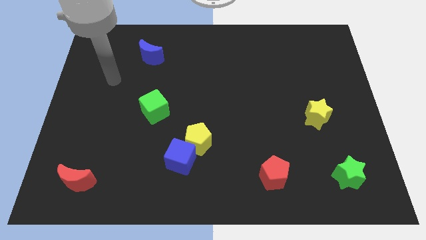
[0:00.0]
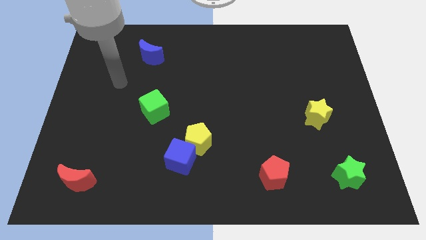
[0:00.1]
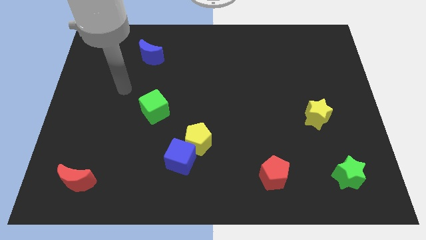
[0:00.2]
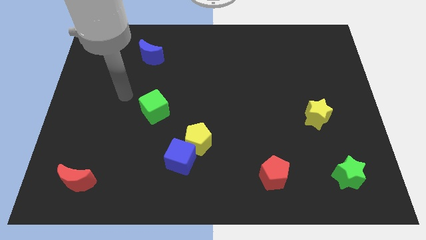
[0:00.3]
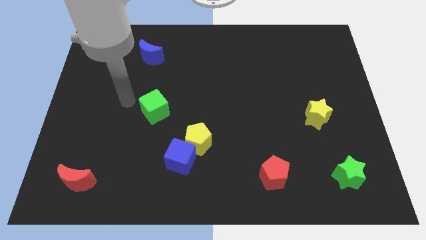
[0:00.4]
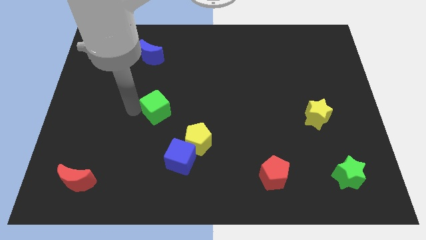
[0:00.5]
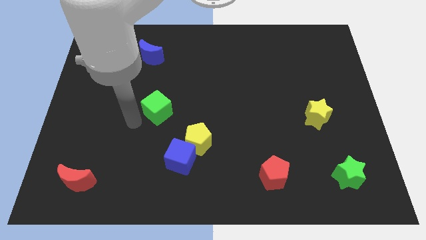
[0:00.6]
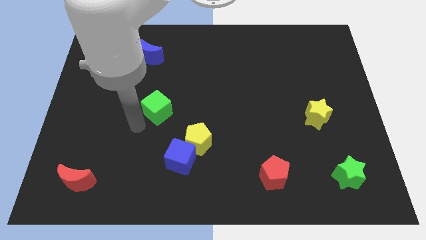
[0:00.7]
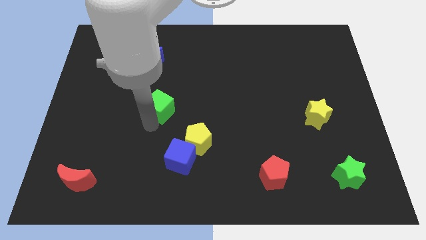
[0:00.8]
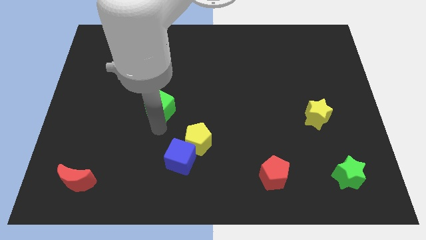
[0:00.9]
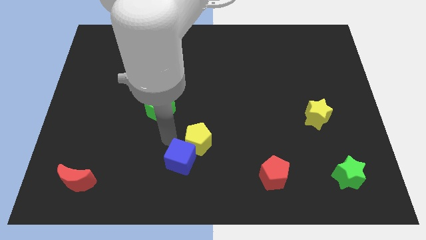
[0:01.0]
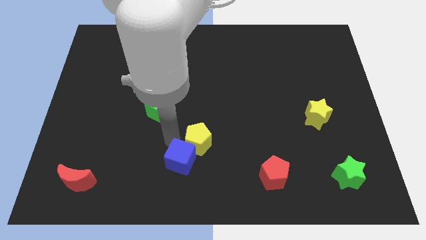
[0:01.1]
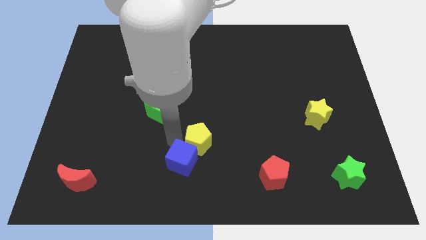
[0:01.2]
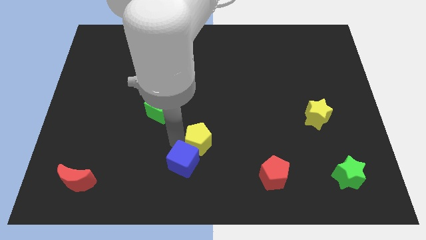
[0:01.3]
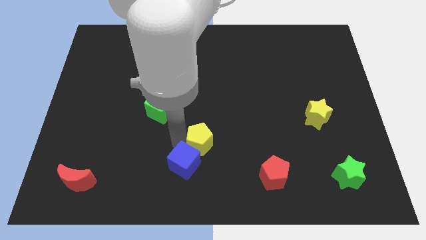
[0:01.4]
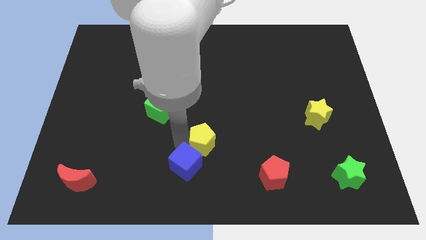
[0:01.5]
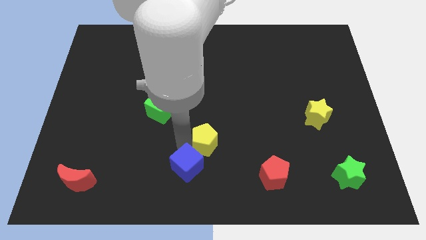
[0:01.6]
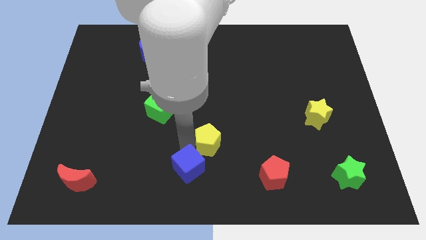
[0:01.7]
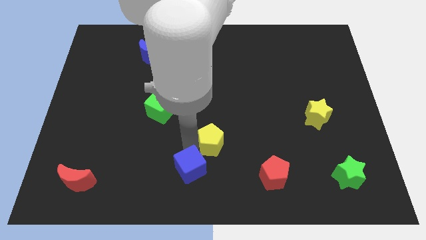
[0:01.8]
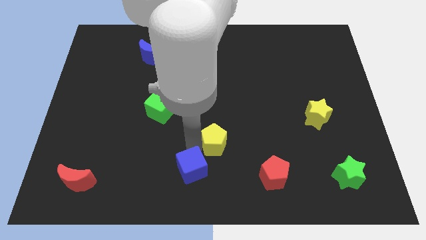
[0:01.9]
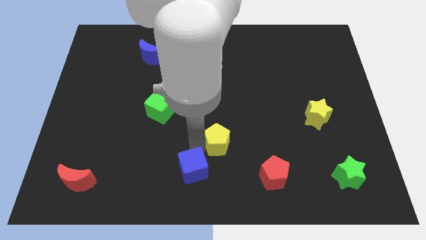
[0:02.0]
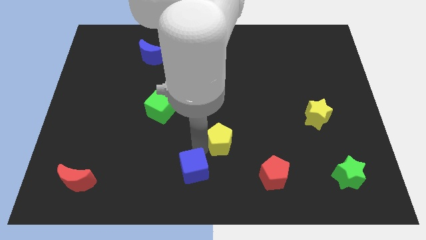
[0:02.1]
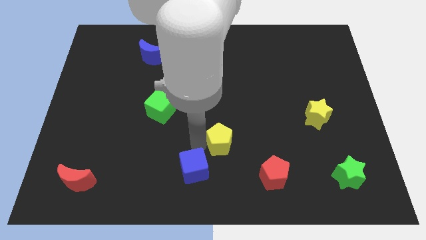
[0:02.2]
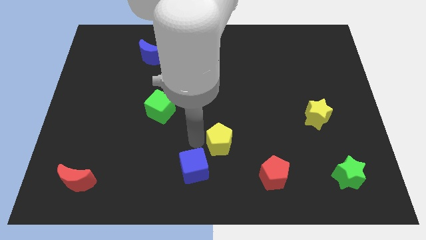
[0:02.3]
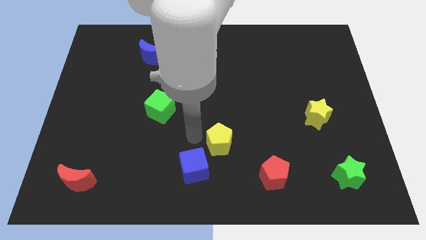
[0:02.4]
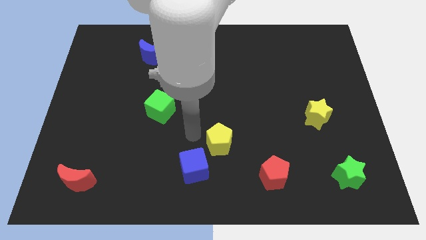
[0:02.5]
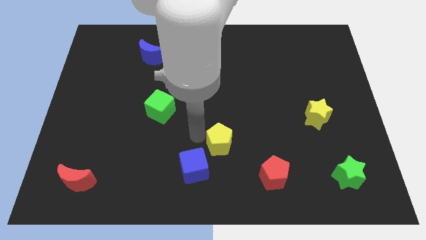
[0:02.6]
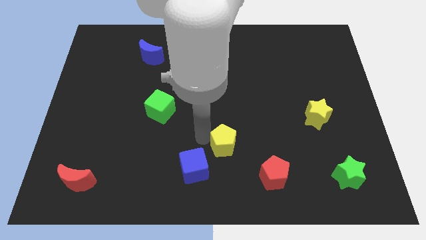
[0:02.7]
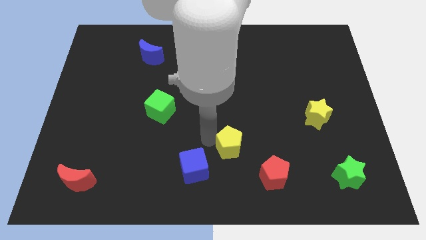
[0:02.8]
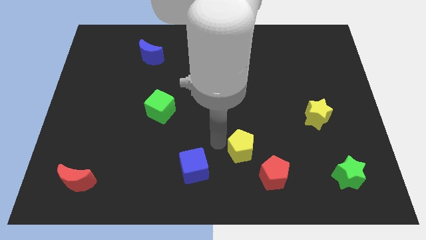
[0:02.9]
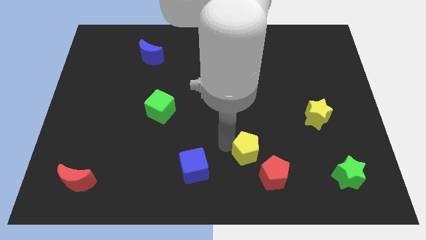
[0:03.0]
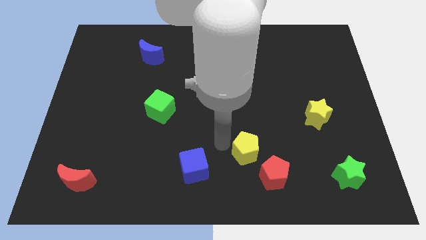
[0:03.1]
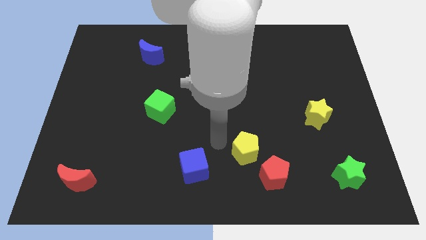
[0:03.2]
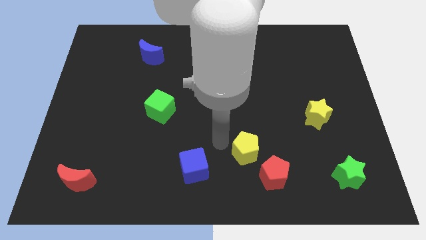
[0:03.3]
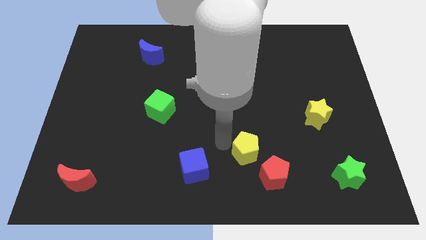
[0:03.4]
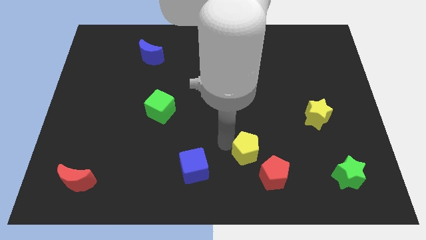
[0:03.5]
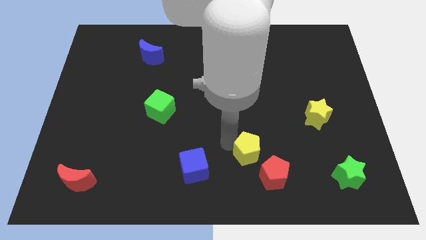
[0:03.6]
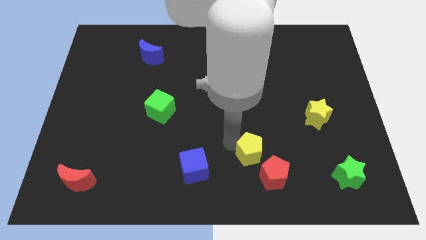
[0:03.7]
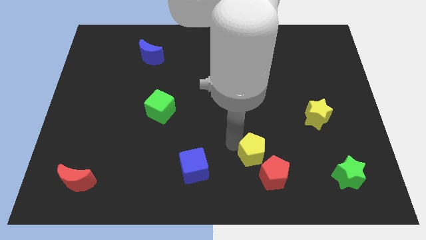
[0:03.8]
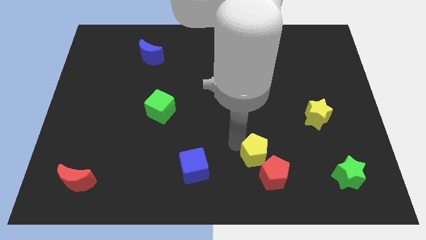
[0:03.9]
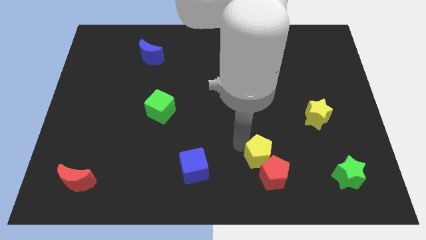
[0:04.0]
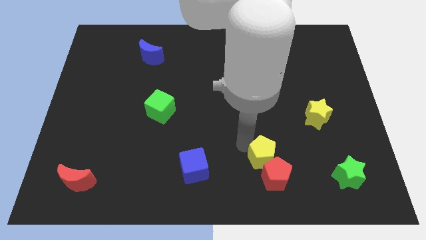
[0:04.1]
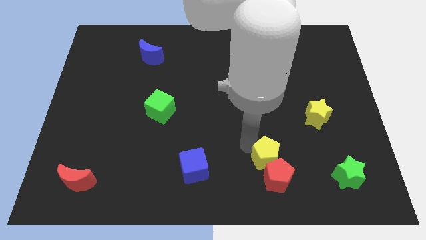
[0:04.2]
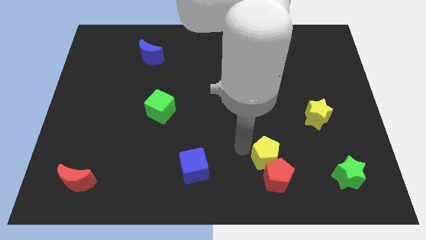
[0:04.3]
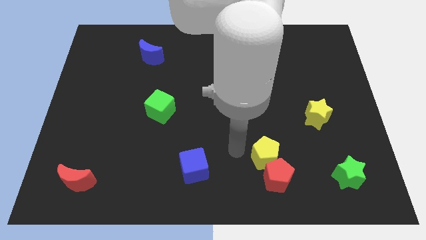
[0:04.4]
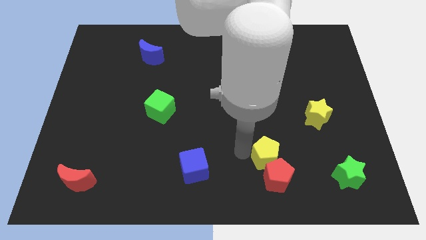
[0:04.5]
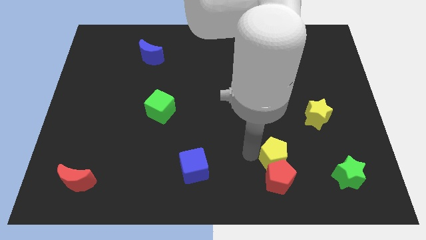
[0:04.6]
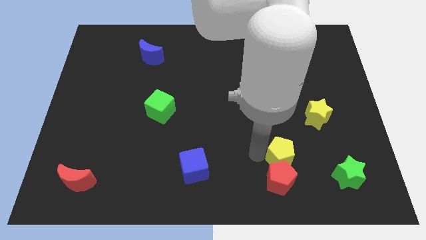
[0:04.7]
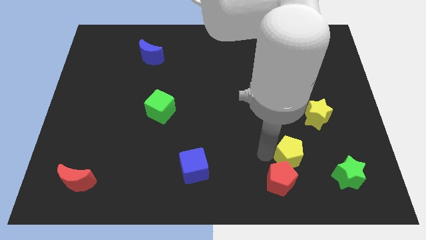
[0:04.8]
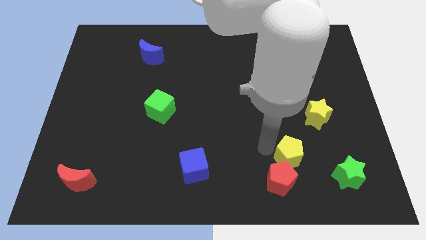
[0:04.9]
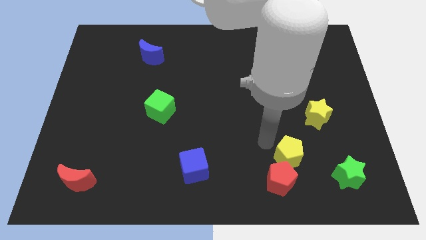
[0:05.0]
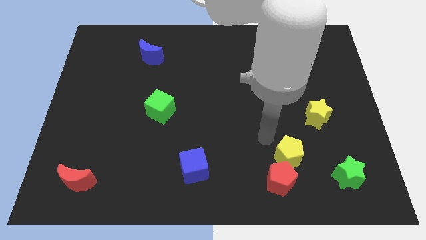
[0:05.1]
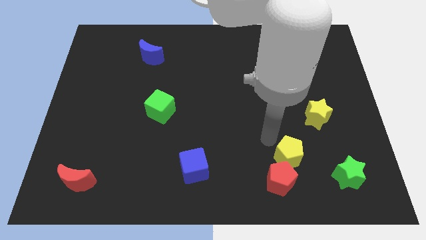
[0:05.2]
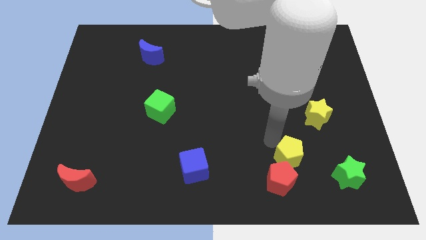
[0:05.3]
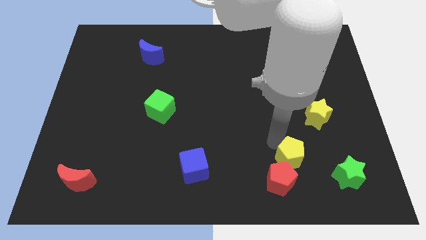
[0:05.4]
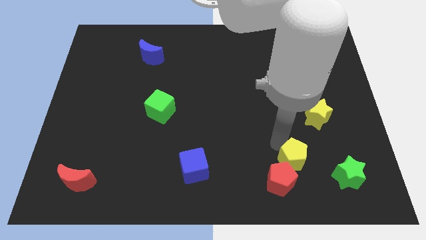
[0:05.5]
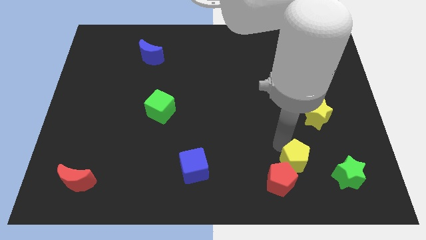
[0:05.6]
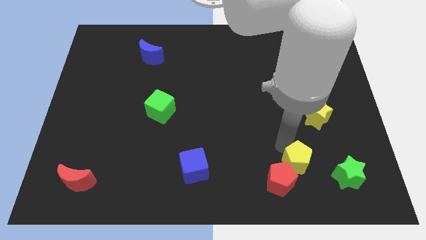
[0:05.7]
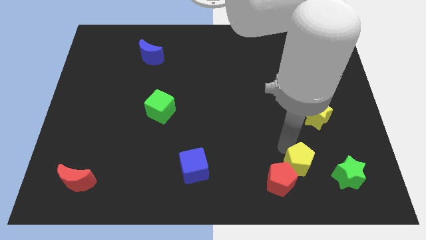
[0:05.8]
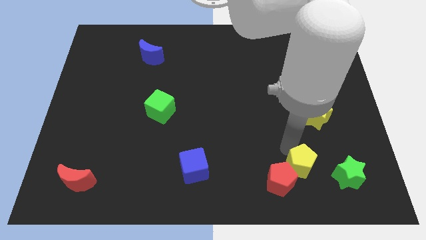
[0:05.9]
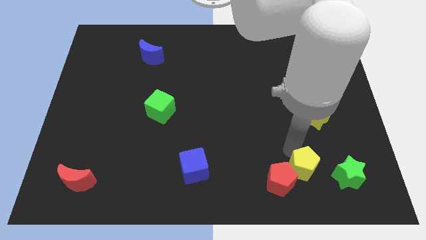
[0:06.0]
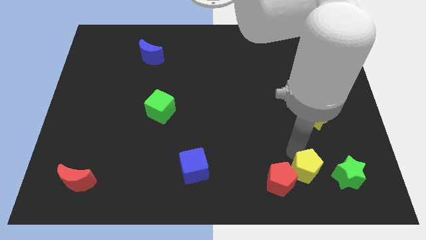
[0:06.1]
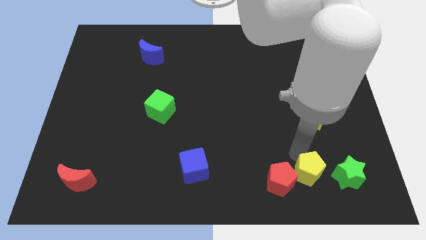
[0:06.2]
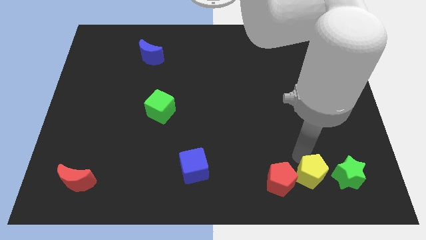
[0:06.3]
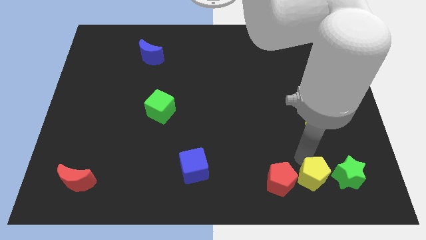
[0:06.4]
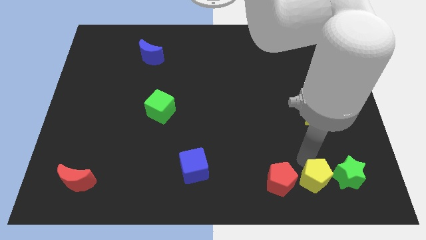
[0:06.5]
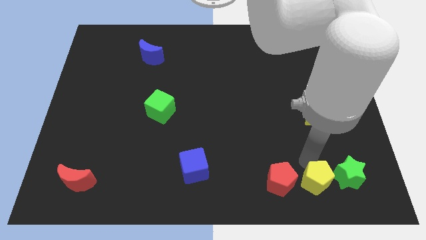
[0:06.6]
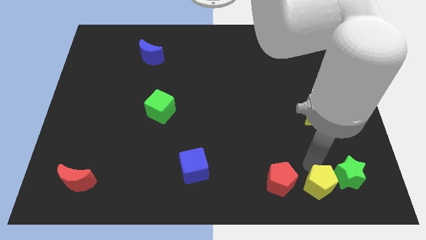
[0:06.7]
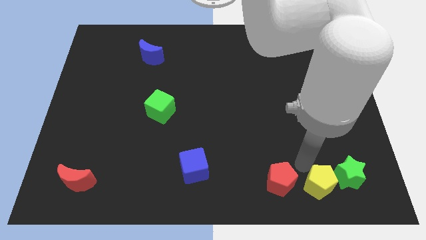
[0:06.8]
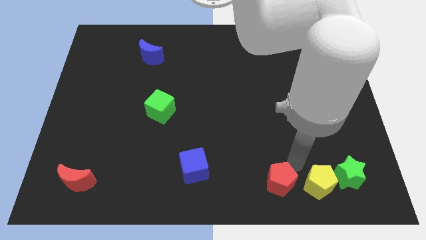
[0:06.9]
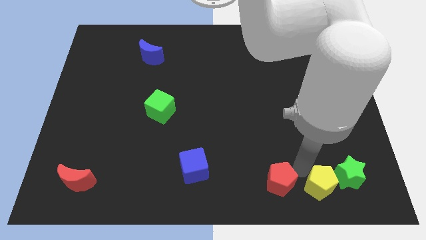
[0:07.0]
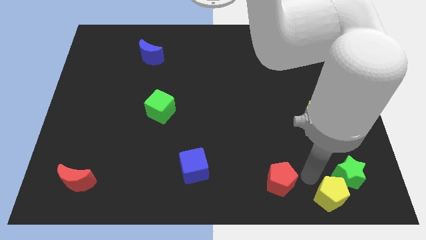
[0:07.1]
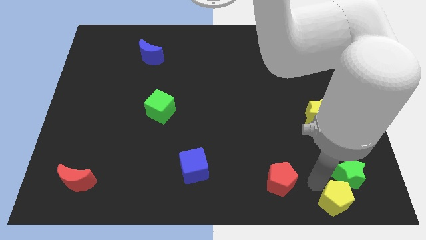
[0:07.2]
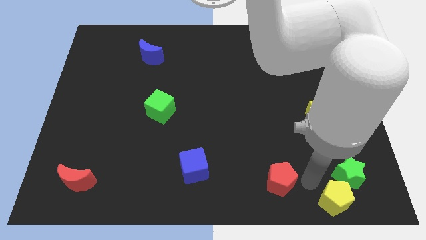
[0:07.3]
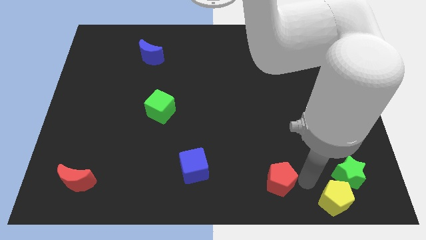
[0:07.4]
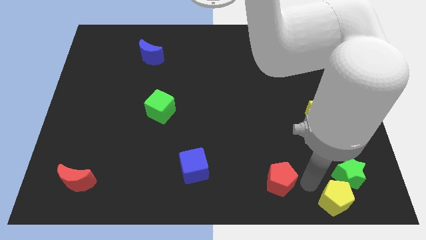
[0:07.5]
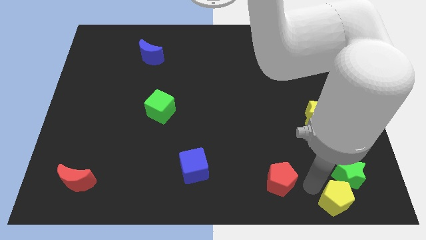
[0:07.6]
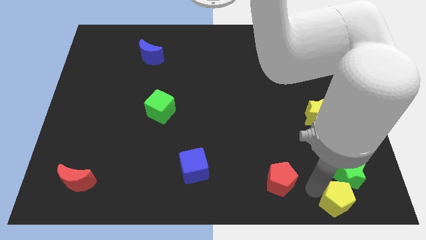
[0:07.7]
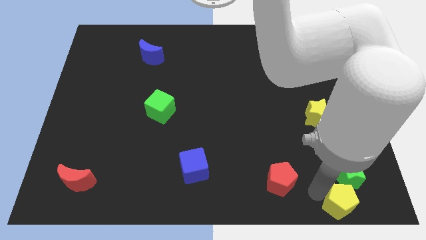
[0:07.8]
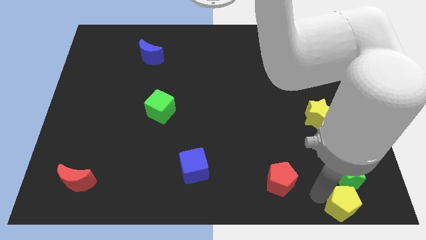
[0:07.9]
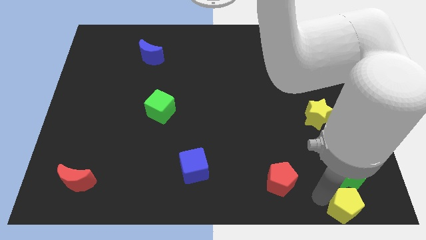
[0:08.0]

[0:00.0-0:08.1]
push the yellow pentagon to the lower right corner
